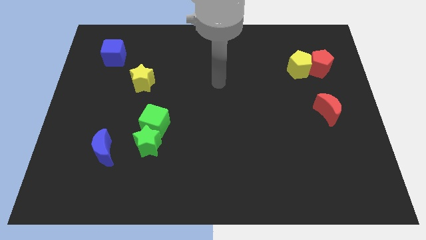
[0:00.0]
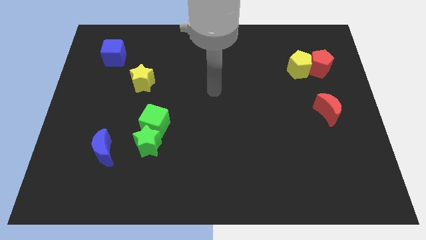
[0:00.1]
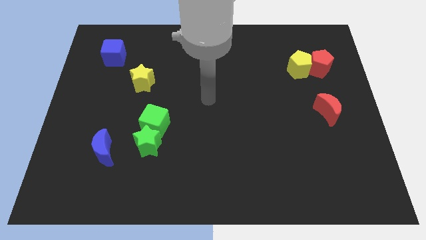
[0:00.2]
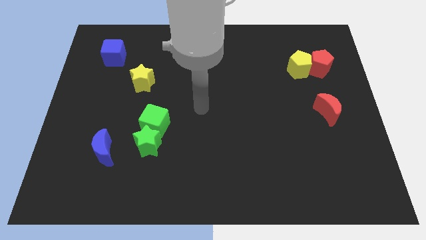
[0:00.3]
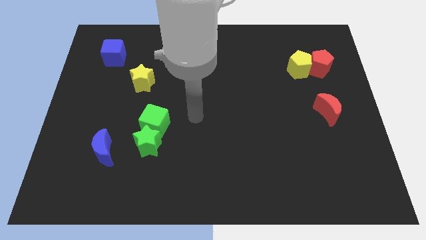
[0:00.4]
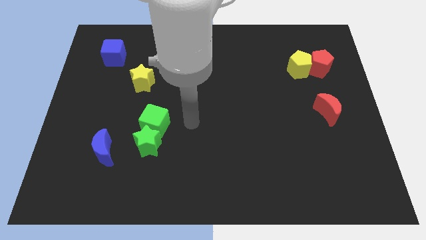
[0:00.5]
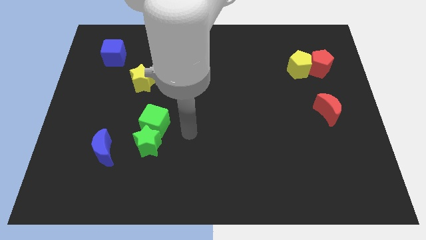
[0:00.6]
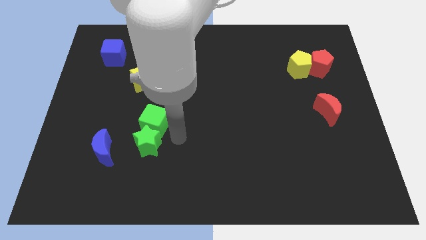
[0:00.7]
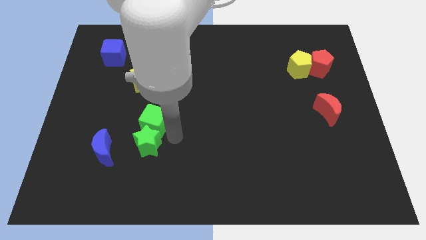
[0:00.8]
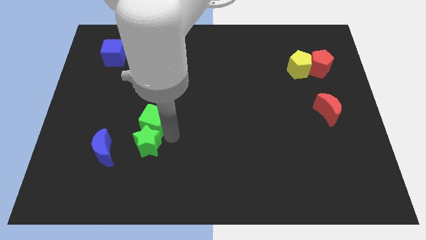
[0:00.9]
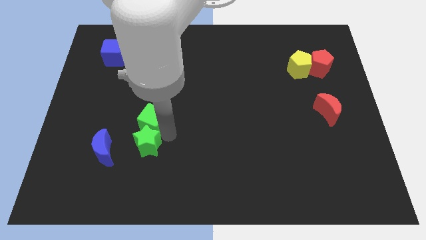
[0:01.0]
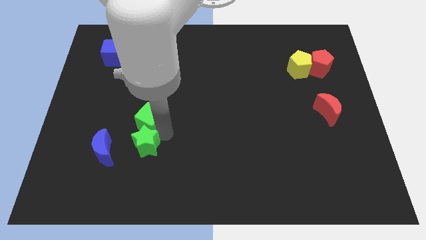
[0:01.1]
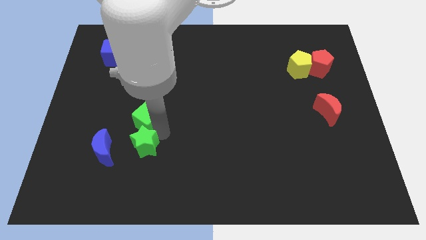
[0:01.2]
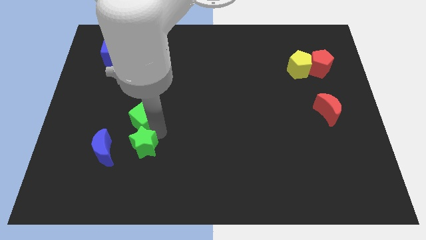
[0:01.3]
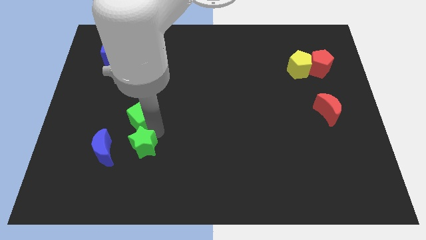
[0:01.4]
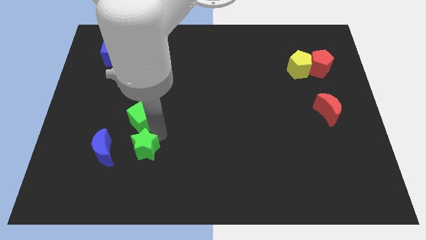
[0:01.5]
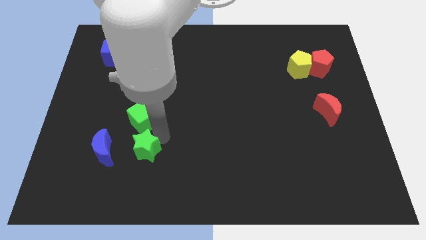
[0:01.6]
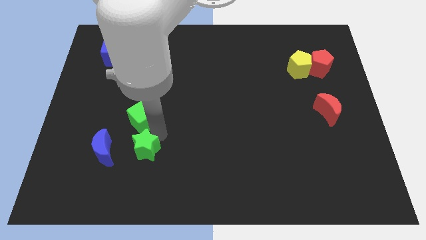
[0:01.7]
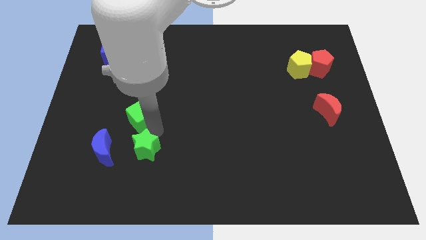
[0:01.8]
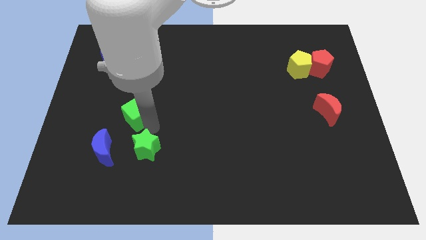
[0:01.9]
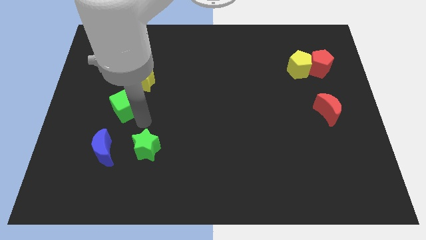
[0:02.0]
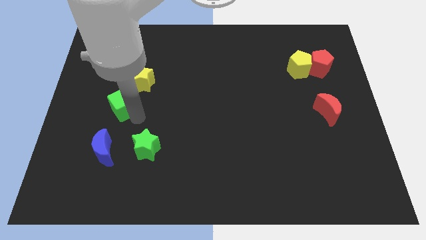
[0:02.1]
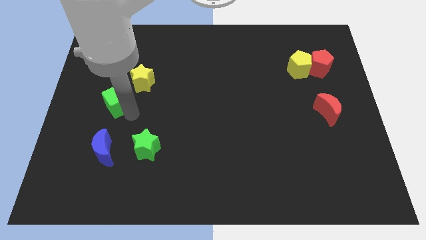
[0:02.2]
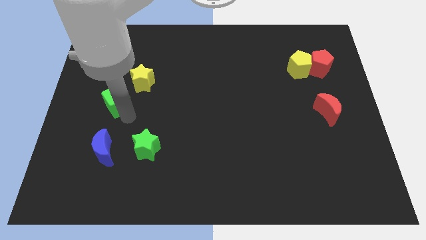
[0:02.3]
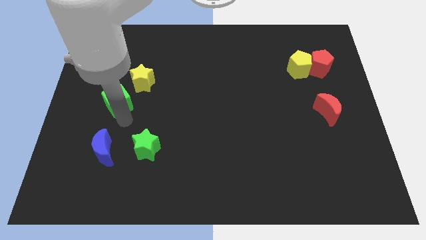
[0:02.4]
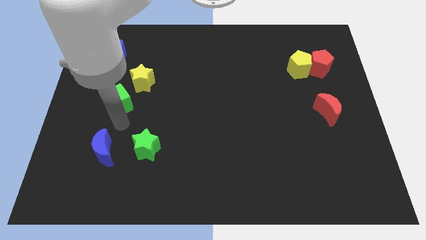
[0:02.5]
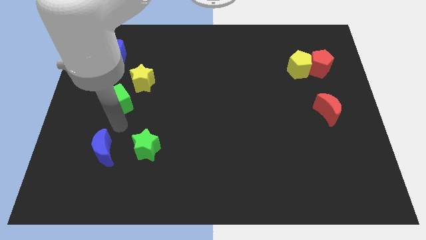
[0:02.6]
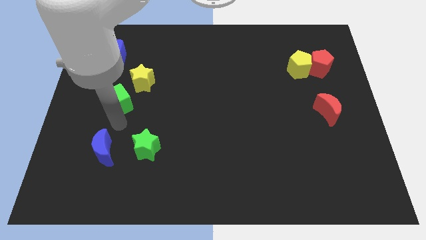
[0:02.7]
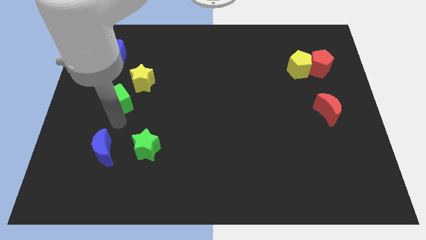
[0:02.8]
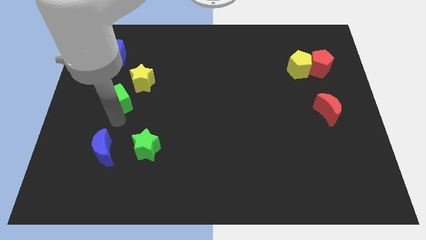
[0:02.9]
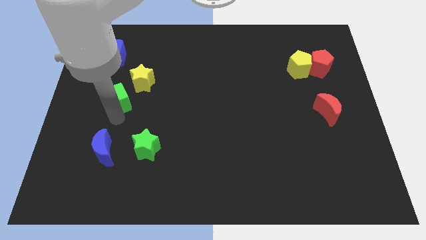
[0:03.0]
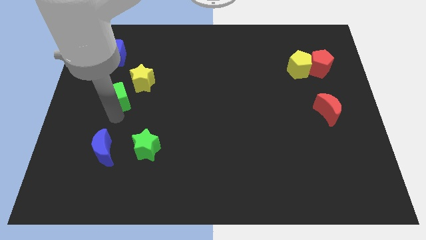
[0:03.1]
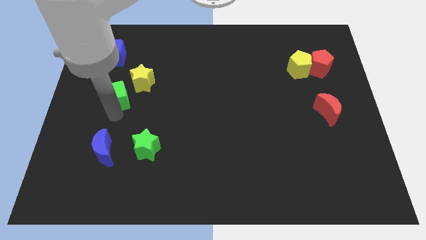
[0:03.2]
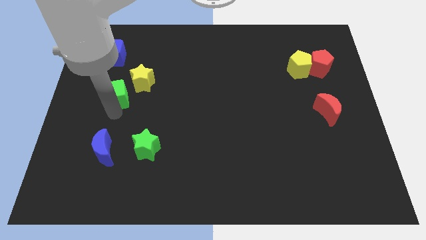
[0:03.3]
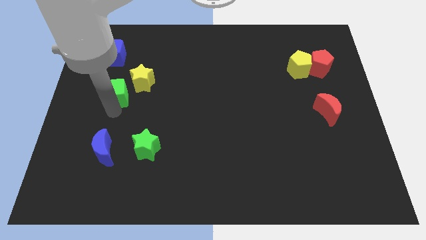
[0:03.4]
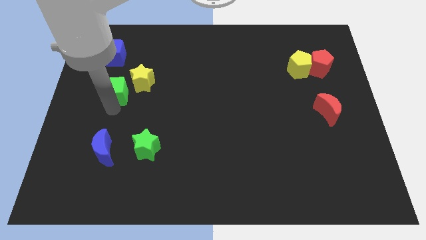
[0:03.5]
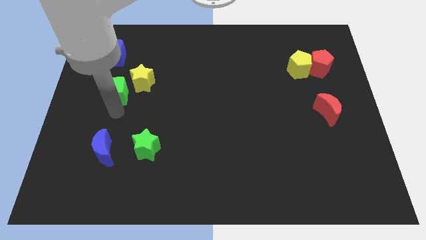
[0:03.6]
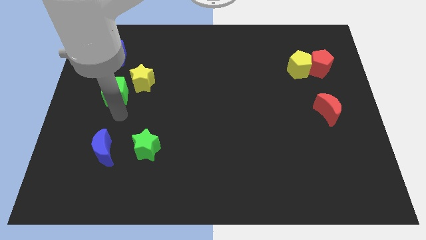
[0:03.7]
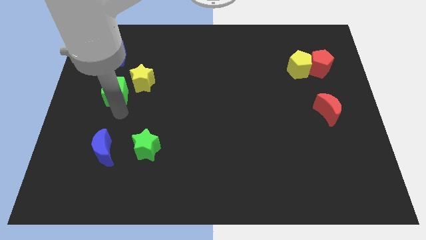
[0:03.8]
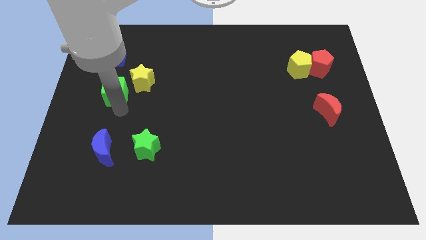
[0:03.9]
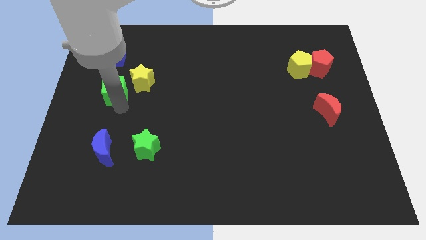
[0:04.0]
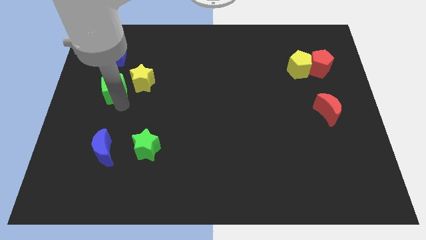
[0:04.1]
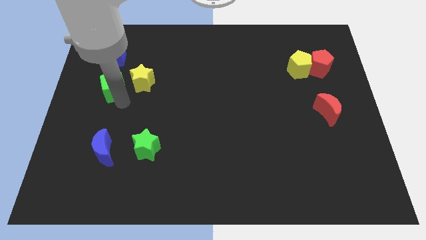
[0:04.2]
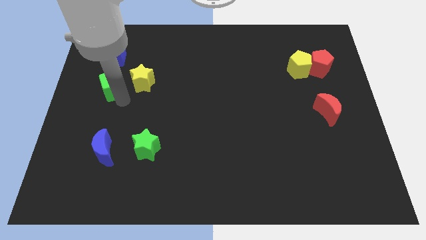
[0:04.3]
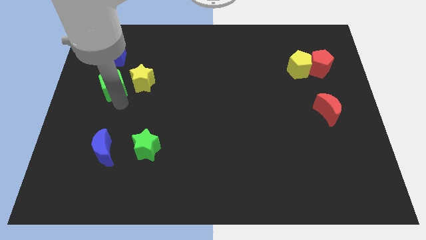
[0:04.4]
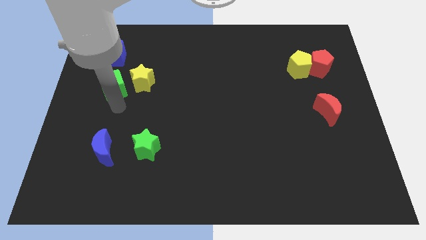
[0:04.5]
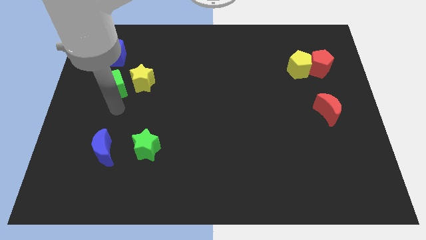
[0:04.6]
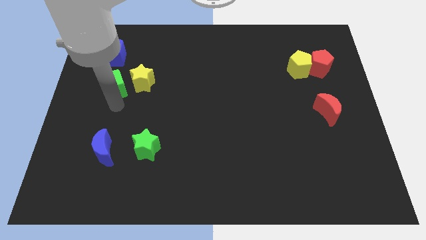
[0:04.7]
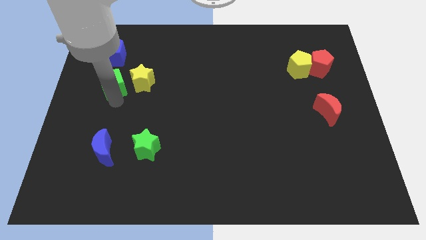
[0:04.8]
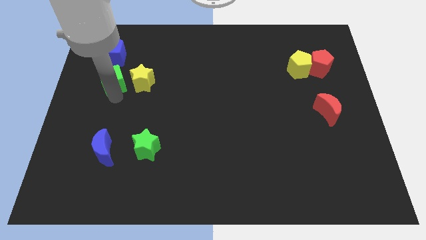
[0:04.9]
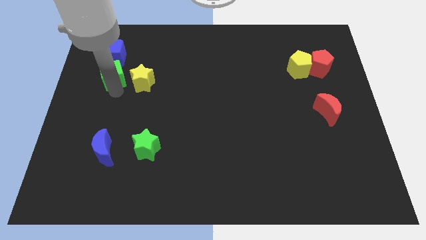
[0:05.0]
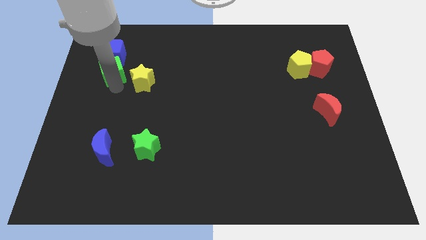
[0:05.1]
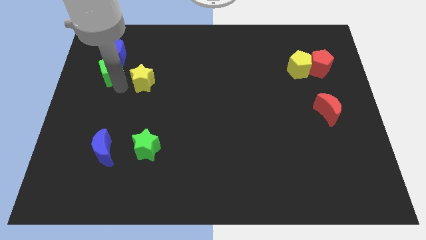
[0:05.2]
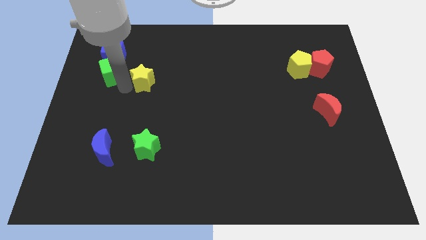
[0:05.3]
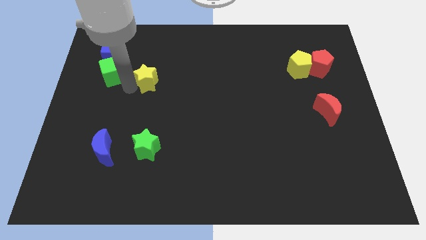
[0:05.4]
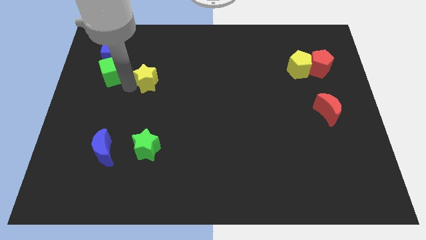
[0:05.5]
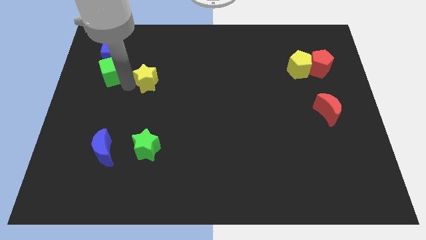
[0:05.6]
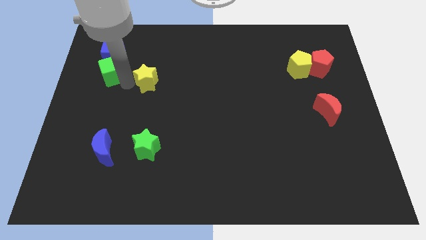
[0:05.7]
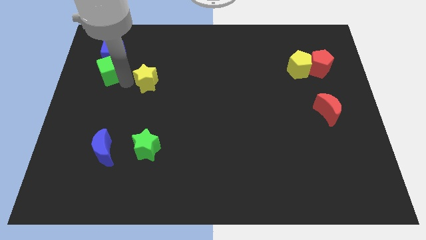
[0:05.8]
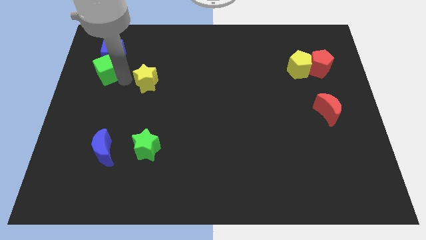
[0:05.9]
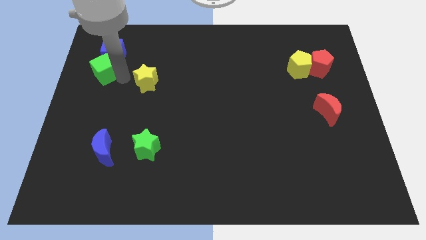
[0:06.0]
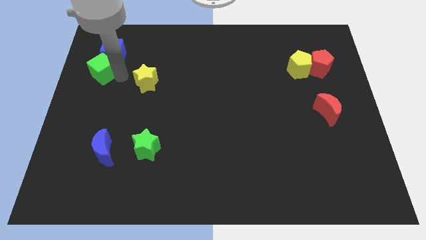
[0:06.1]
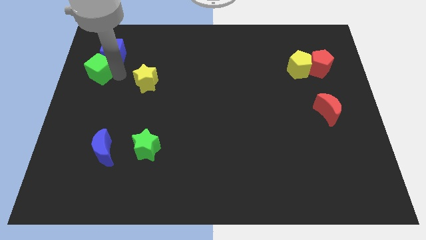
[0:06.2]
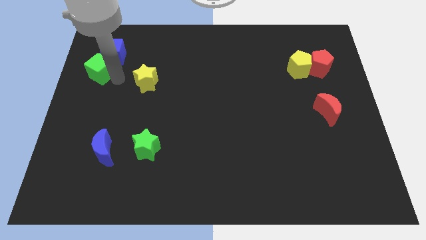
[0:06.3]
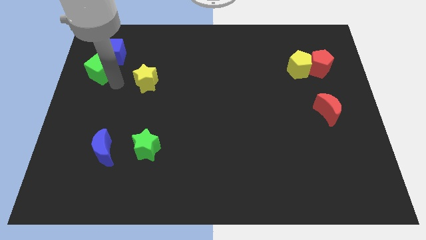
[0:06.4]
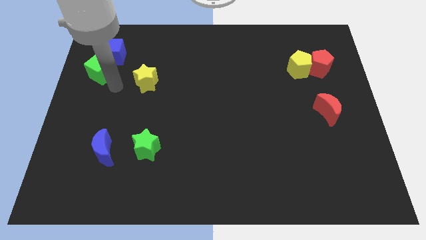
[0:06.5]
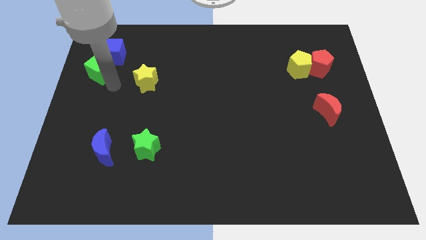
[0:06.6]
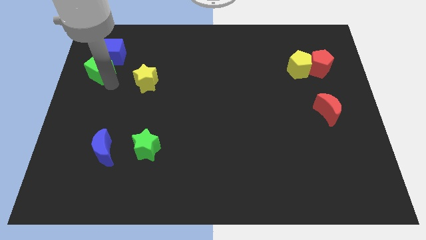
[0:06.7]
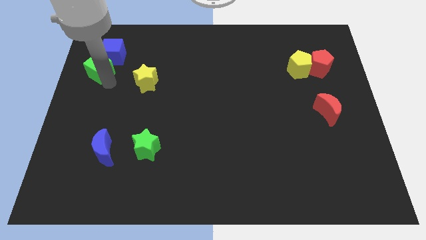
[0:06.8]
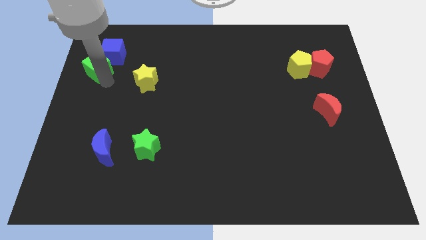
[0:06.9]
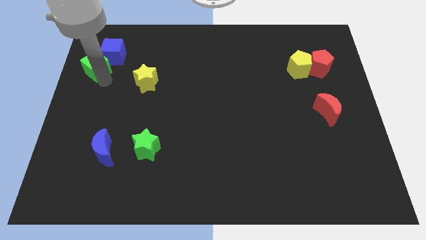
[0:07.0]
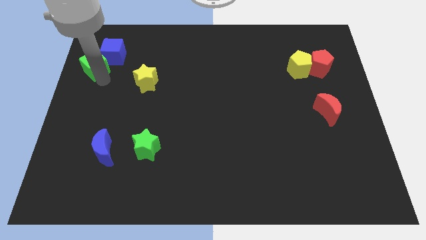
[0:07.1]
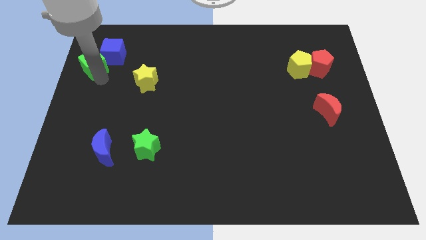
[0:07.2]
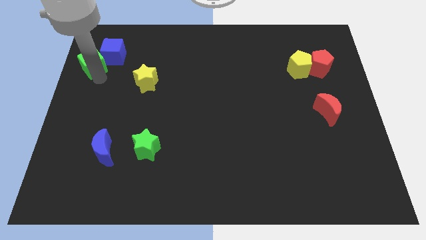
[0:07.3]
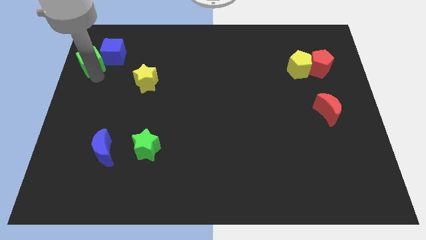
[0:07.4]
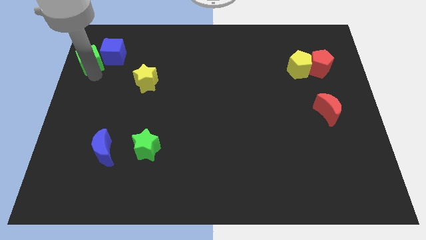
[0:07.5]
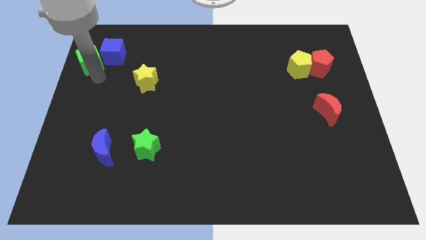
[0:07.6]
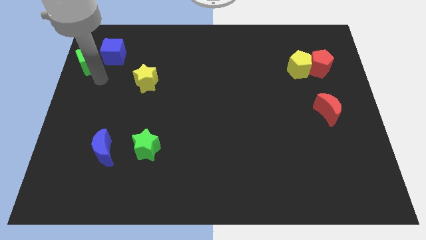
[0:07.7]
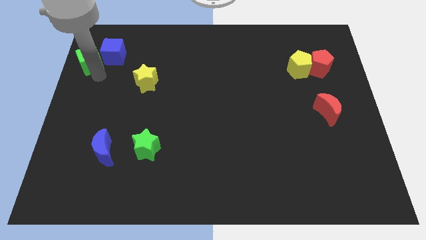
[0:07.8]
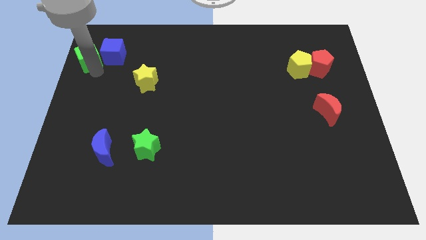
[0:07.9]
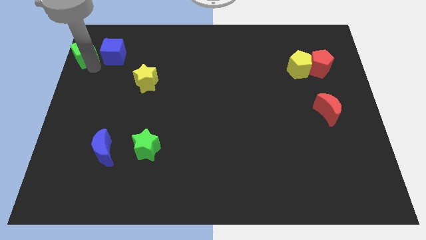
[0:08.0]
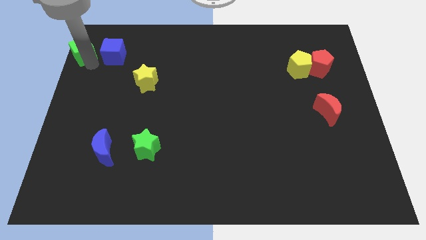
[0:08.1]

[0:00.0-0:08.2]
move the green cube to the top left corner
